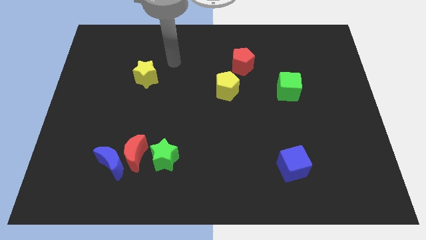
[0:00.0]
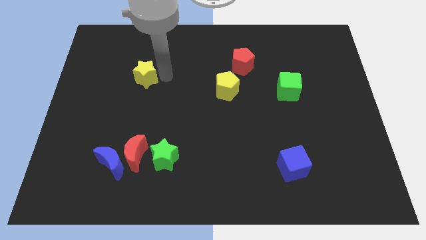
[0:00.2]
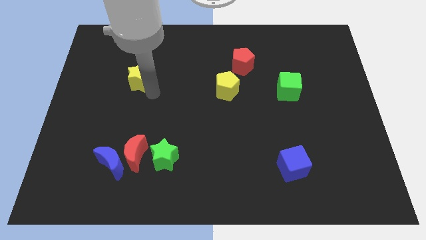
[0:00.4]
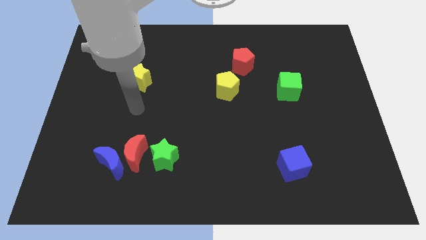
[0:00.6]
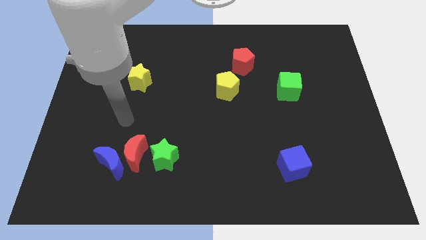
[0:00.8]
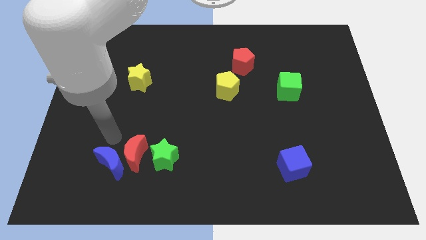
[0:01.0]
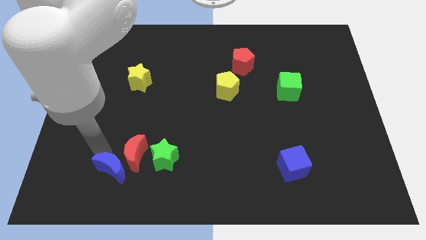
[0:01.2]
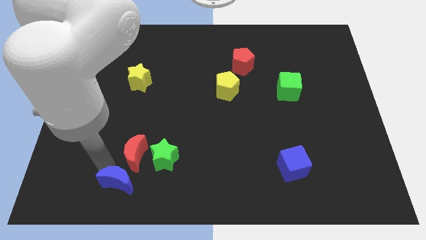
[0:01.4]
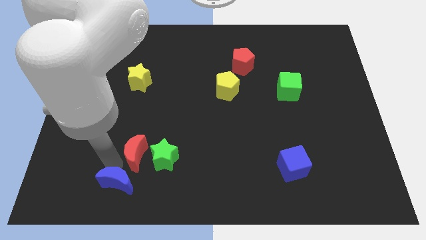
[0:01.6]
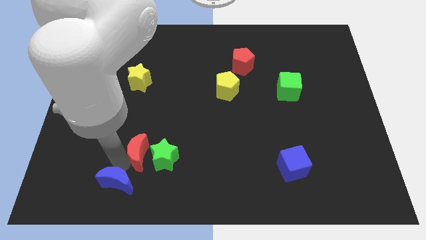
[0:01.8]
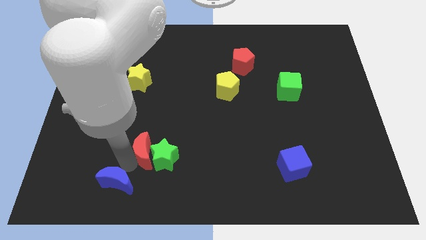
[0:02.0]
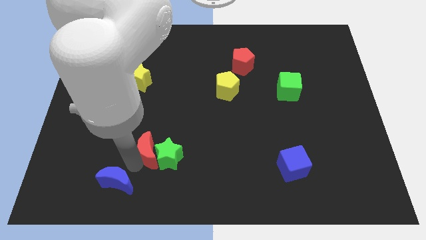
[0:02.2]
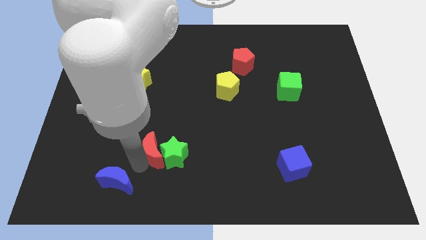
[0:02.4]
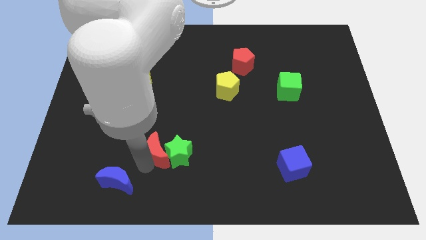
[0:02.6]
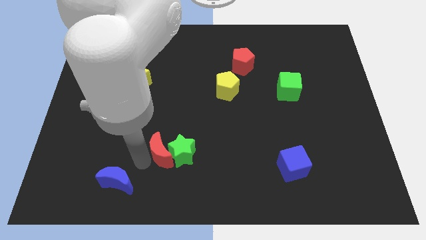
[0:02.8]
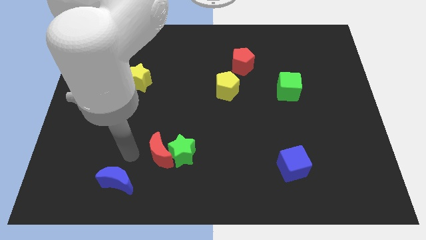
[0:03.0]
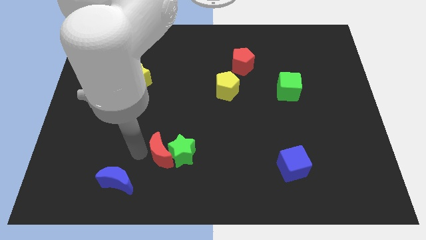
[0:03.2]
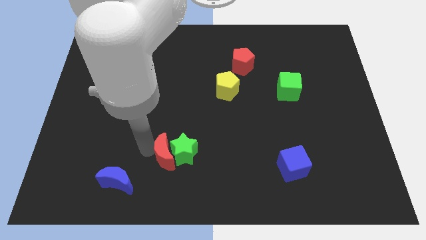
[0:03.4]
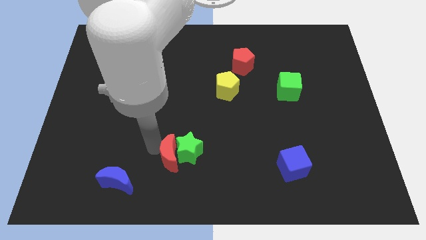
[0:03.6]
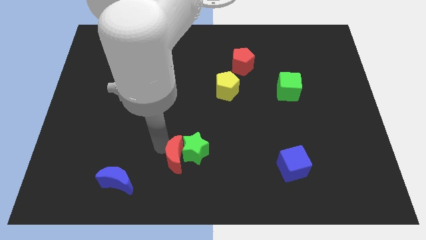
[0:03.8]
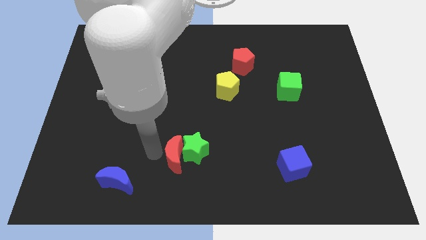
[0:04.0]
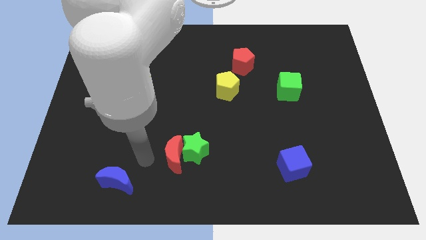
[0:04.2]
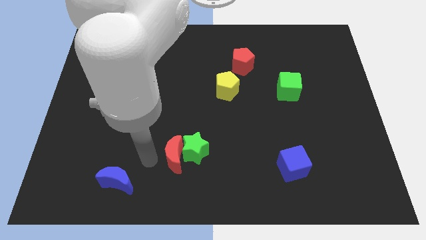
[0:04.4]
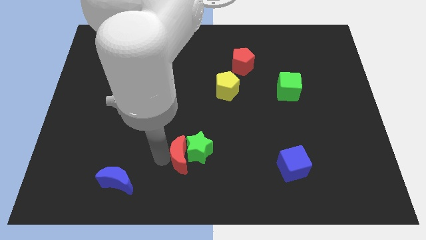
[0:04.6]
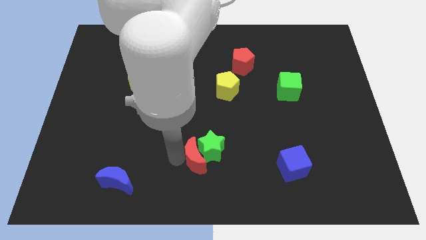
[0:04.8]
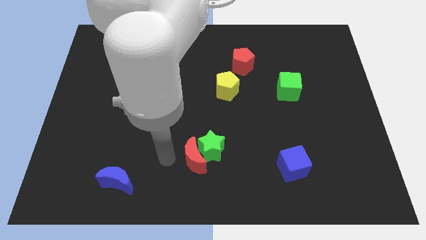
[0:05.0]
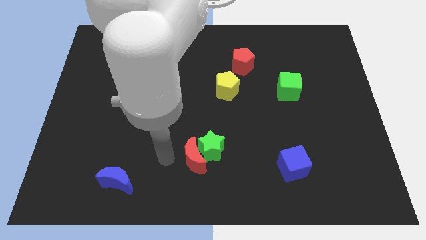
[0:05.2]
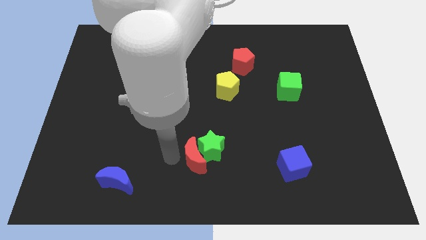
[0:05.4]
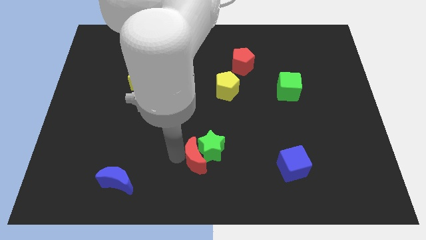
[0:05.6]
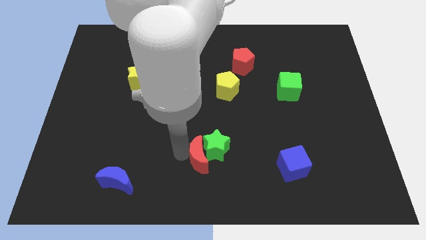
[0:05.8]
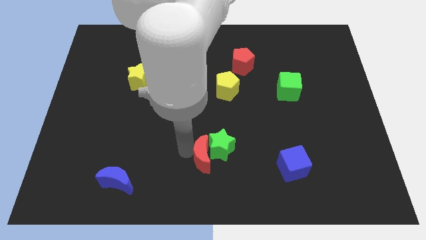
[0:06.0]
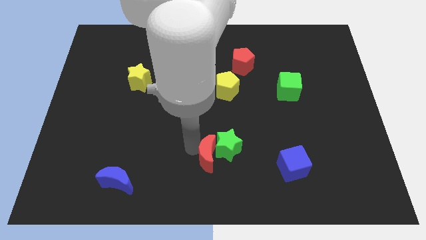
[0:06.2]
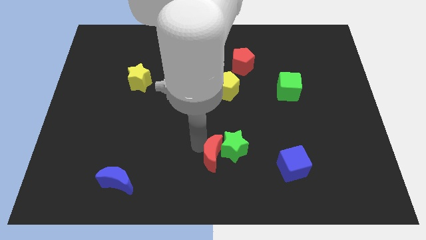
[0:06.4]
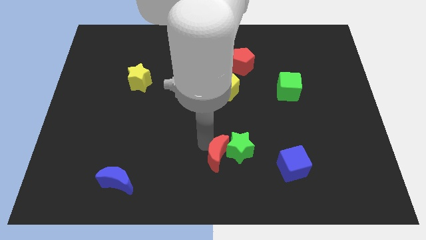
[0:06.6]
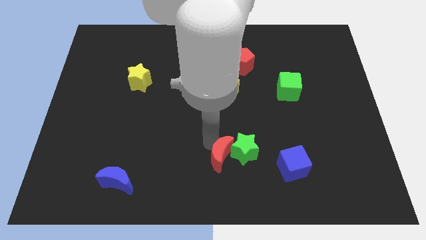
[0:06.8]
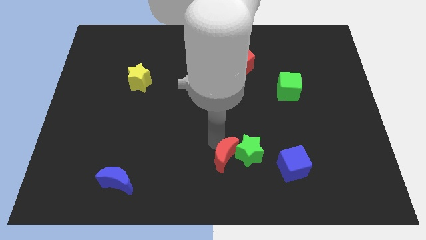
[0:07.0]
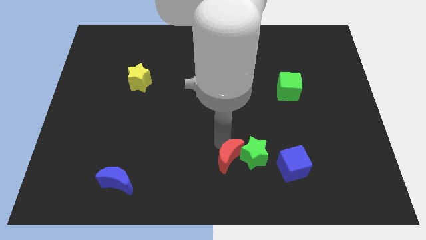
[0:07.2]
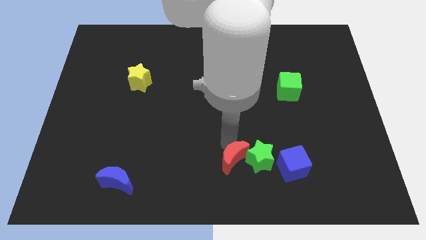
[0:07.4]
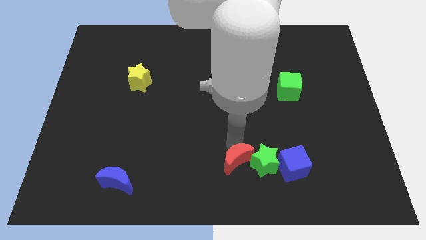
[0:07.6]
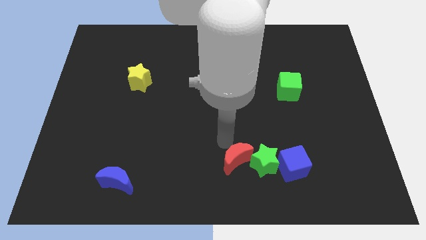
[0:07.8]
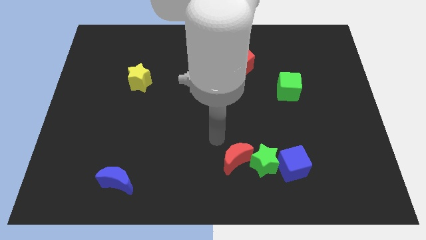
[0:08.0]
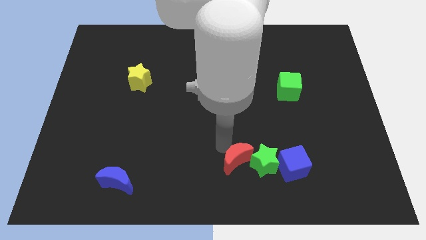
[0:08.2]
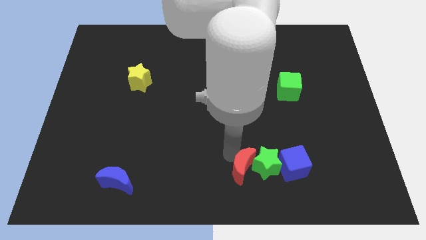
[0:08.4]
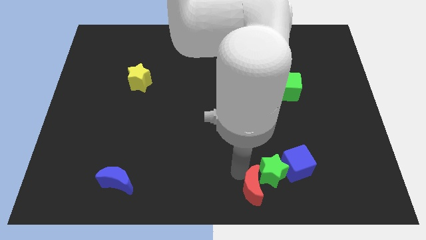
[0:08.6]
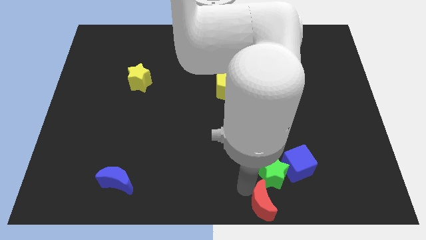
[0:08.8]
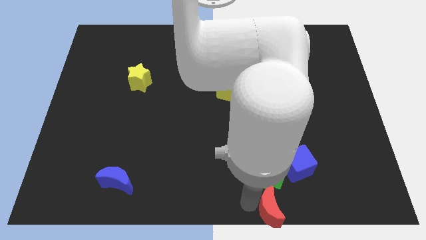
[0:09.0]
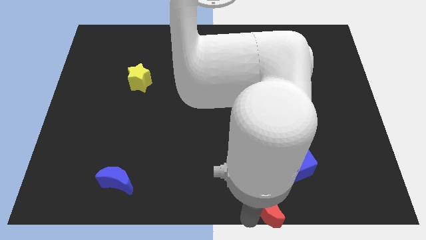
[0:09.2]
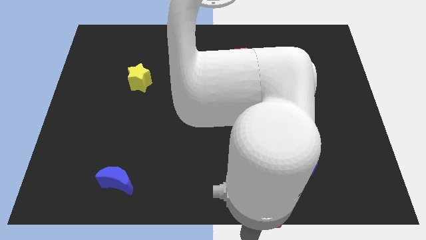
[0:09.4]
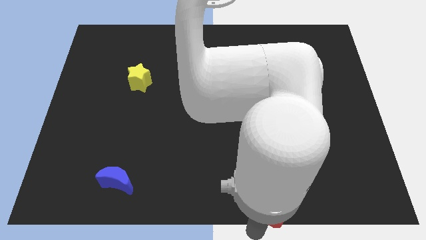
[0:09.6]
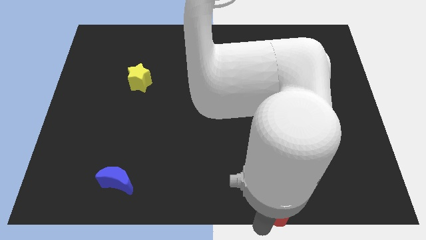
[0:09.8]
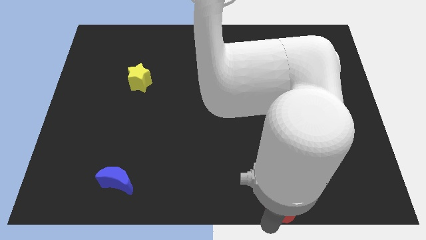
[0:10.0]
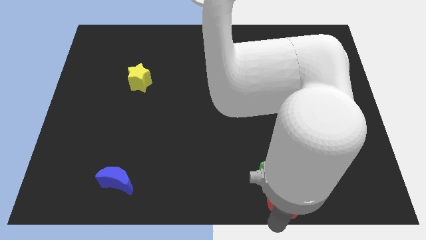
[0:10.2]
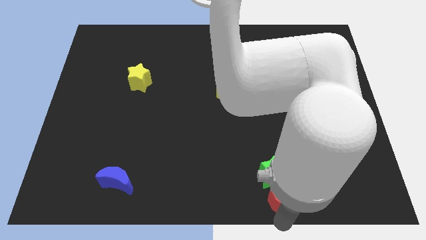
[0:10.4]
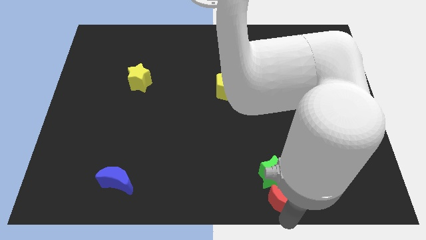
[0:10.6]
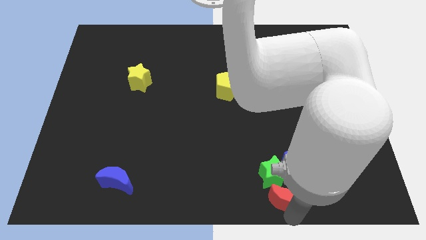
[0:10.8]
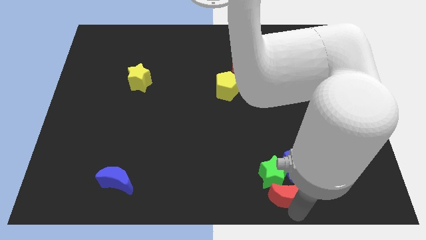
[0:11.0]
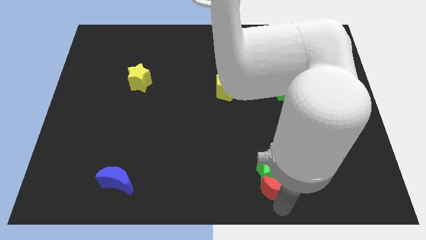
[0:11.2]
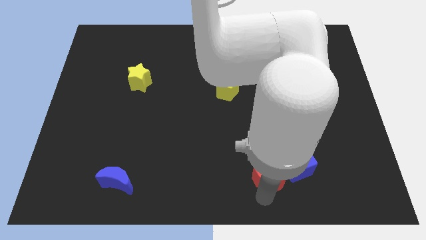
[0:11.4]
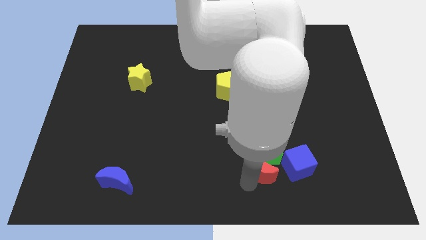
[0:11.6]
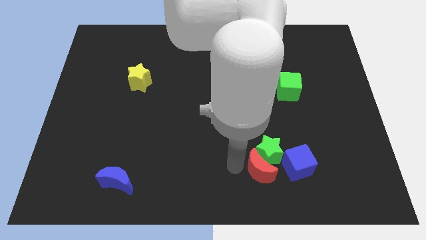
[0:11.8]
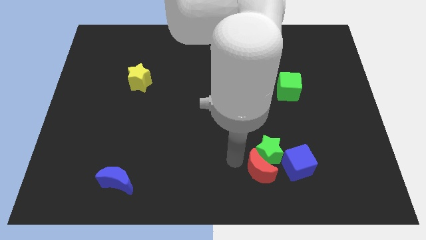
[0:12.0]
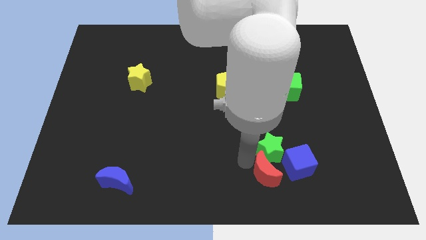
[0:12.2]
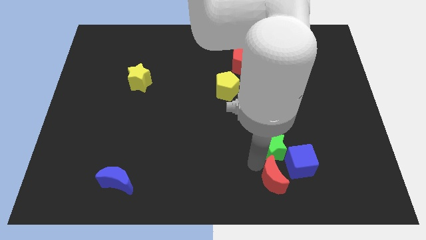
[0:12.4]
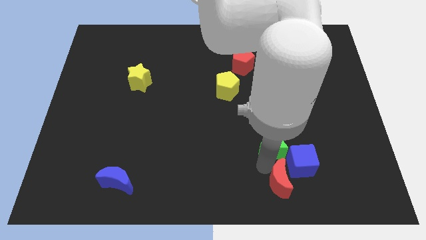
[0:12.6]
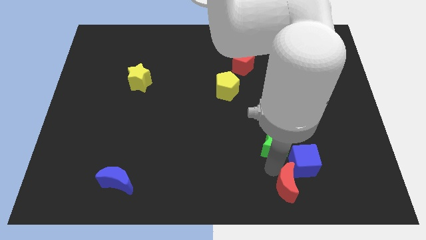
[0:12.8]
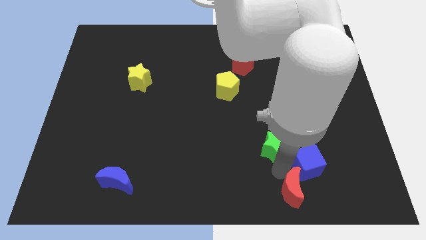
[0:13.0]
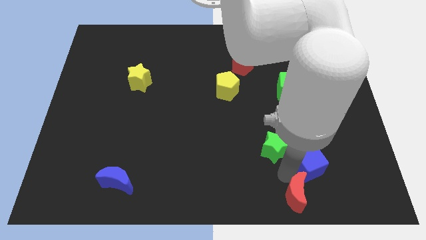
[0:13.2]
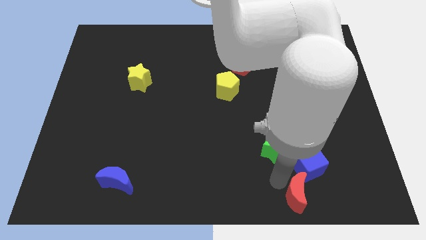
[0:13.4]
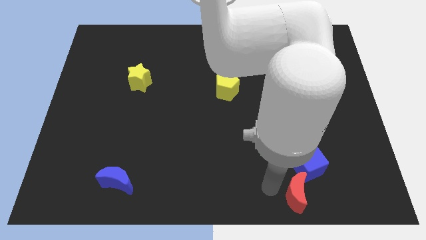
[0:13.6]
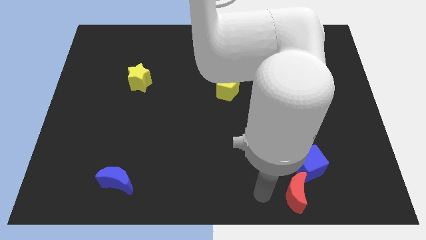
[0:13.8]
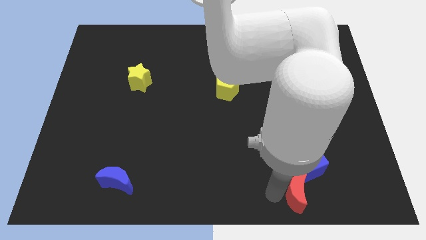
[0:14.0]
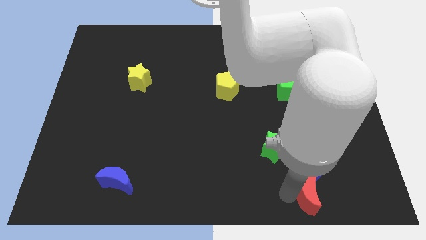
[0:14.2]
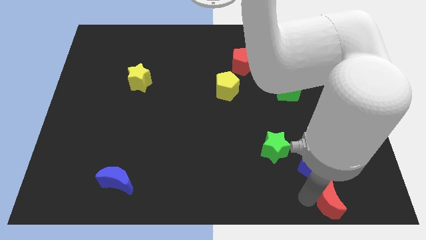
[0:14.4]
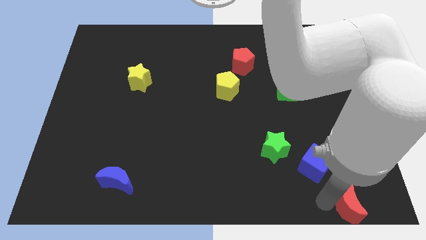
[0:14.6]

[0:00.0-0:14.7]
slide the red moon to the bottom right
